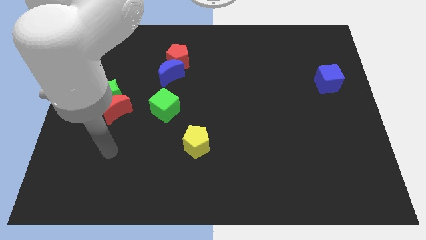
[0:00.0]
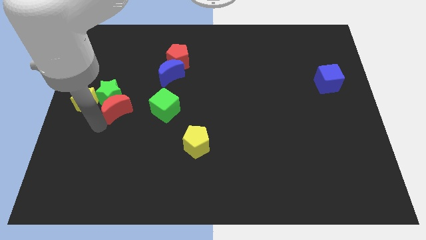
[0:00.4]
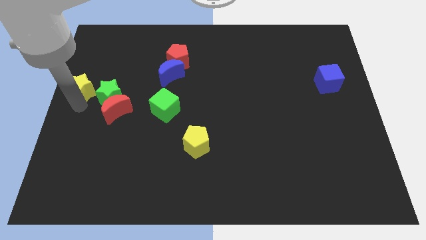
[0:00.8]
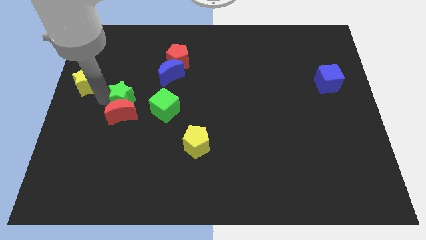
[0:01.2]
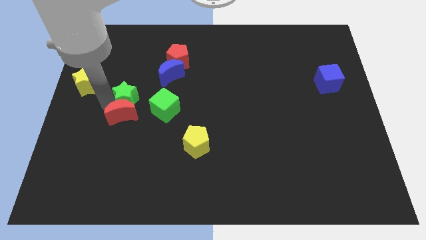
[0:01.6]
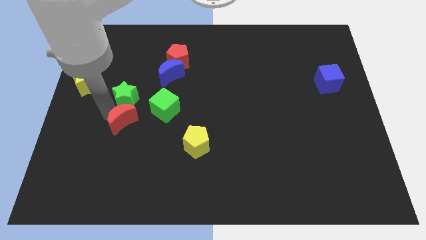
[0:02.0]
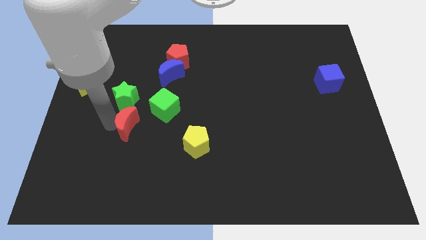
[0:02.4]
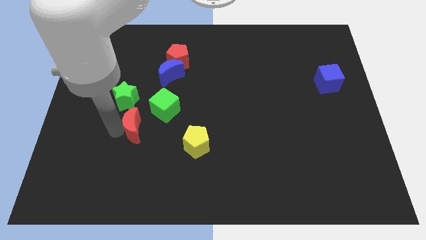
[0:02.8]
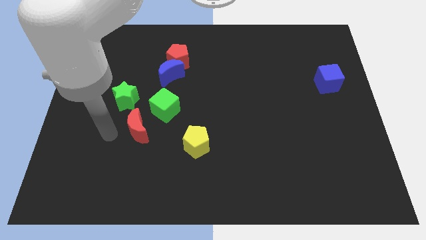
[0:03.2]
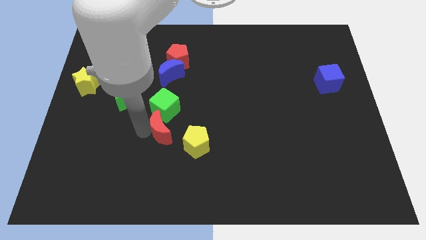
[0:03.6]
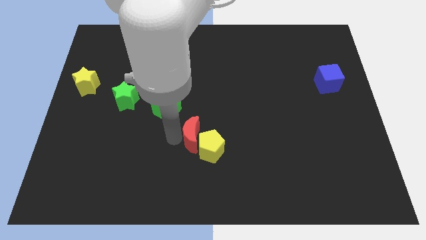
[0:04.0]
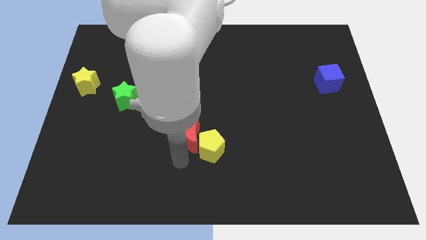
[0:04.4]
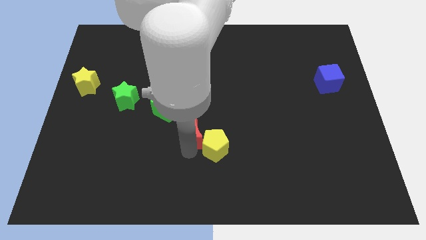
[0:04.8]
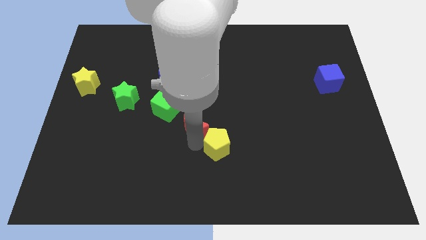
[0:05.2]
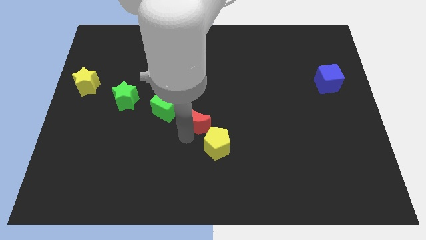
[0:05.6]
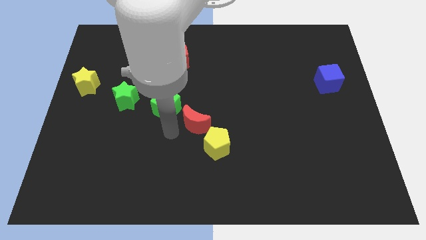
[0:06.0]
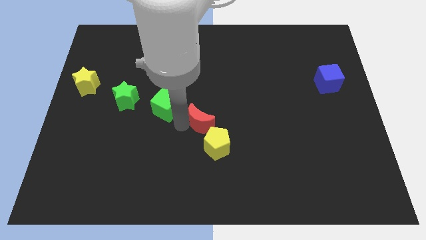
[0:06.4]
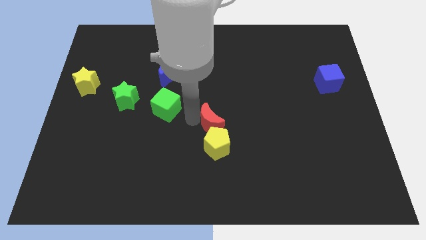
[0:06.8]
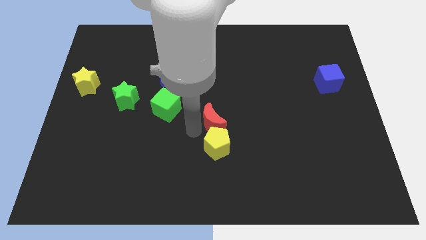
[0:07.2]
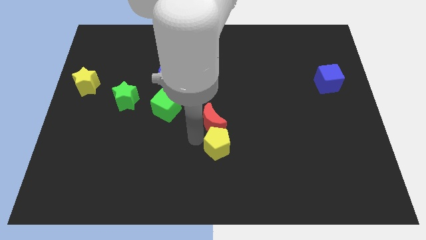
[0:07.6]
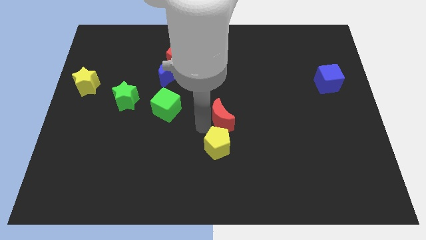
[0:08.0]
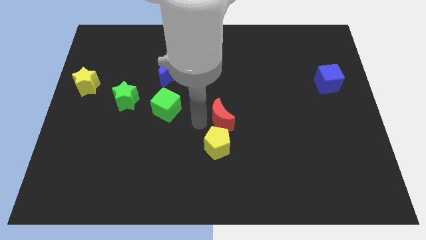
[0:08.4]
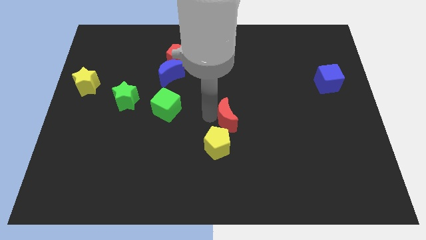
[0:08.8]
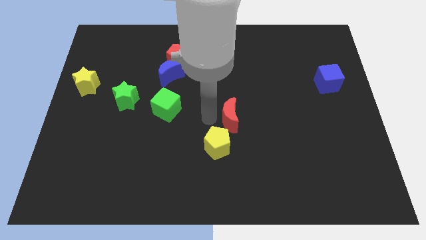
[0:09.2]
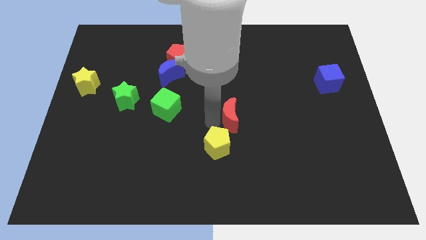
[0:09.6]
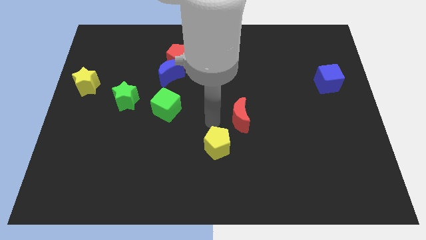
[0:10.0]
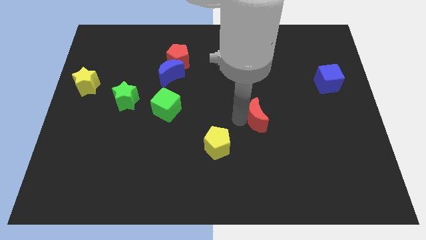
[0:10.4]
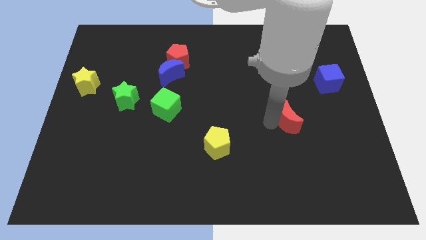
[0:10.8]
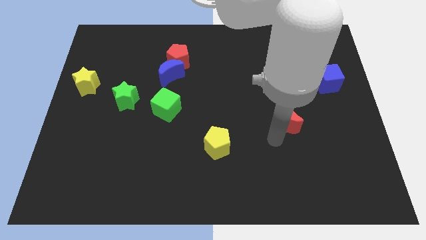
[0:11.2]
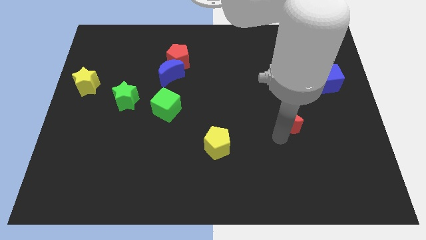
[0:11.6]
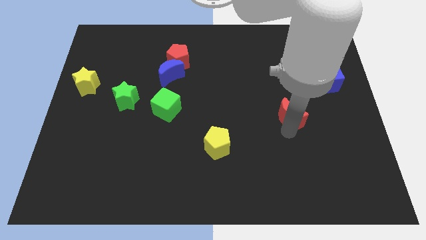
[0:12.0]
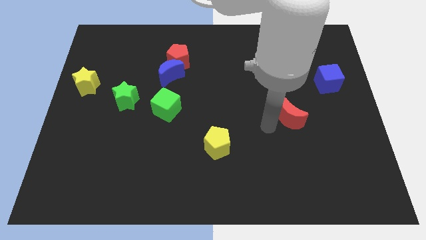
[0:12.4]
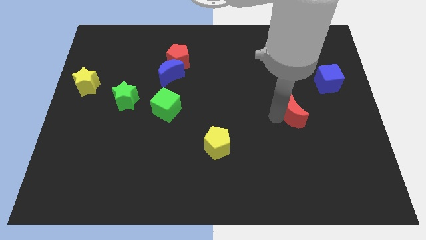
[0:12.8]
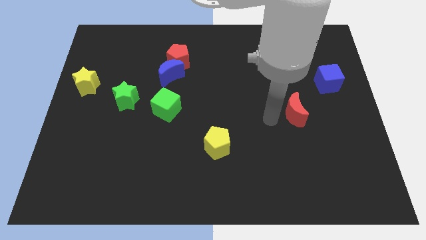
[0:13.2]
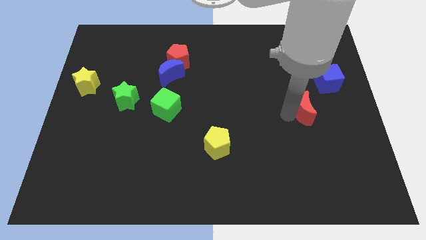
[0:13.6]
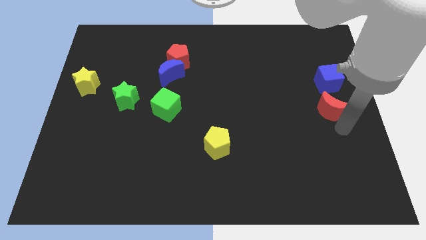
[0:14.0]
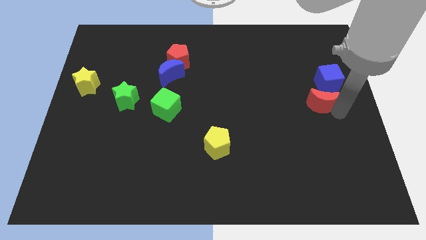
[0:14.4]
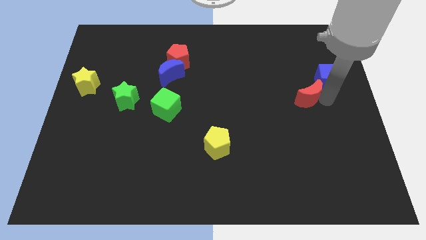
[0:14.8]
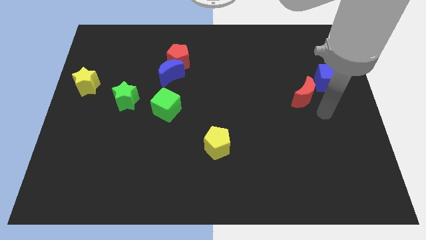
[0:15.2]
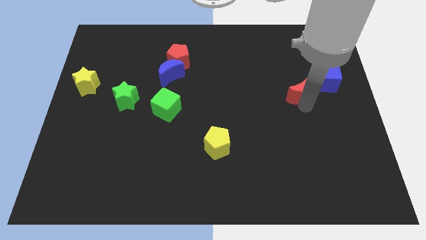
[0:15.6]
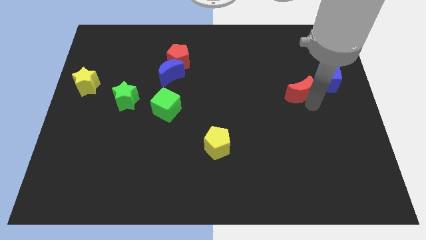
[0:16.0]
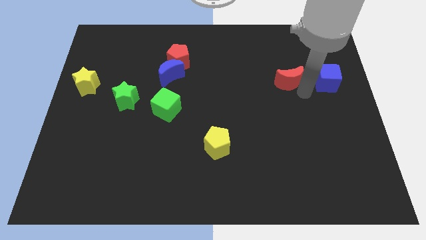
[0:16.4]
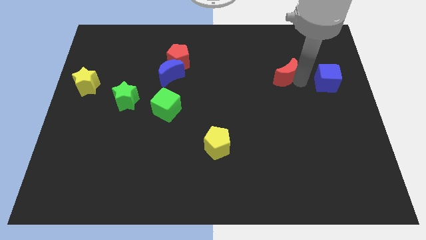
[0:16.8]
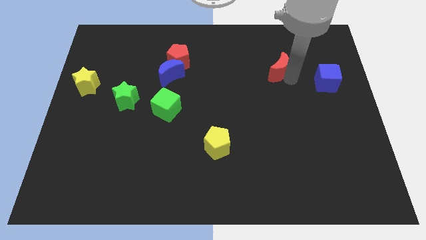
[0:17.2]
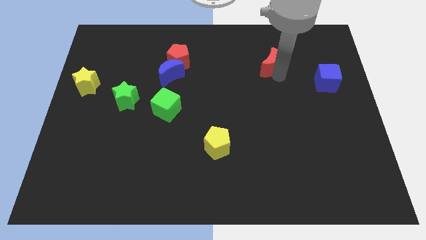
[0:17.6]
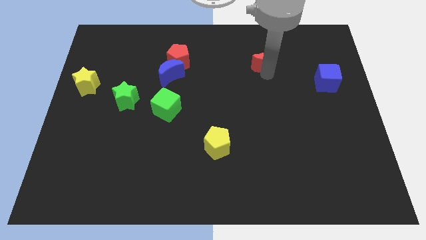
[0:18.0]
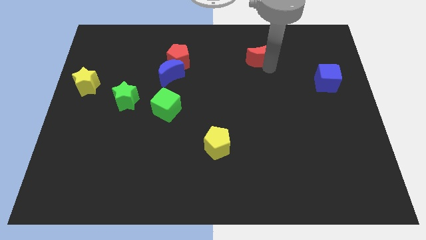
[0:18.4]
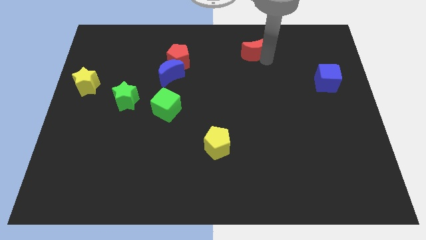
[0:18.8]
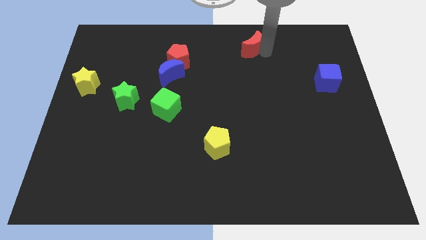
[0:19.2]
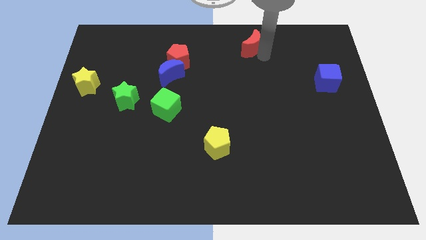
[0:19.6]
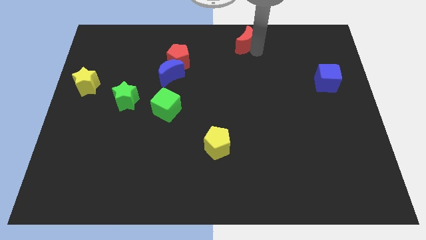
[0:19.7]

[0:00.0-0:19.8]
put the red moon to the top

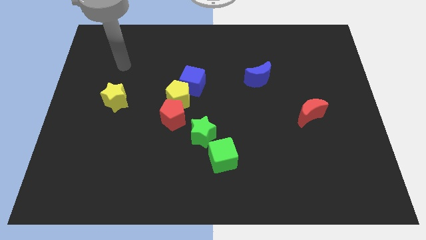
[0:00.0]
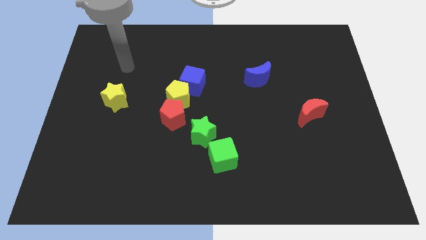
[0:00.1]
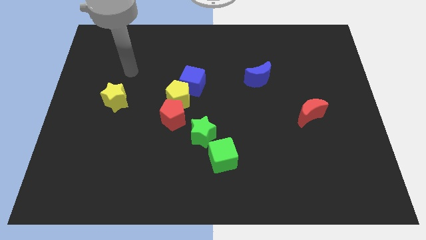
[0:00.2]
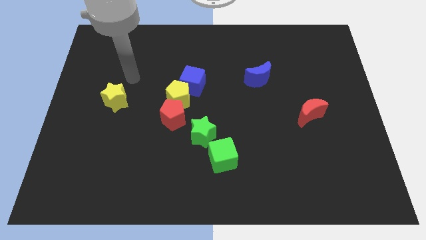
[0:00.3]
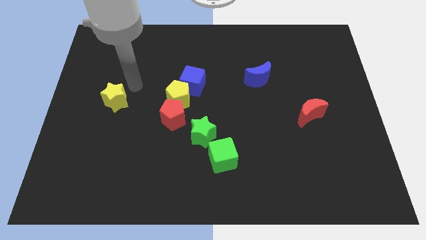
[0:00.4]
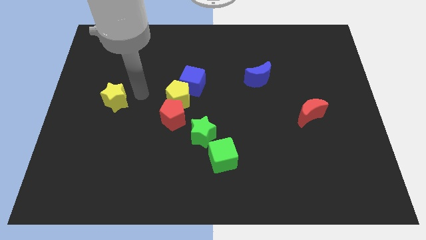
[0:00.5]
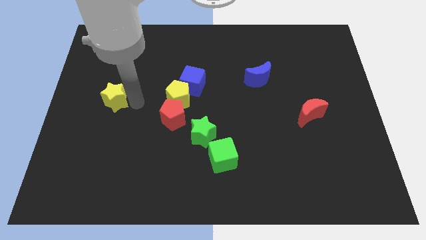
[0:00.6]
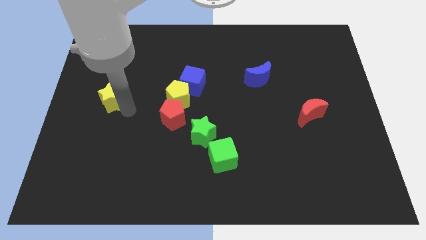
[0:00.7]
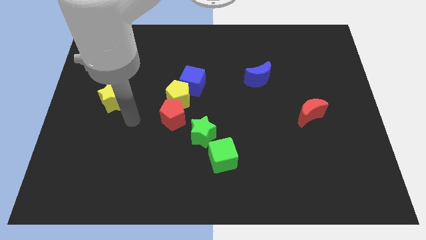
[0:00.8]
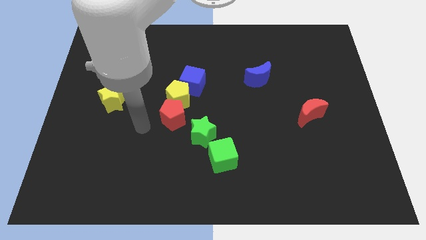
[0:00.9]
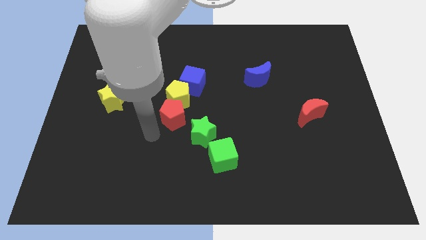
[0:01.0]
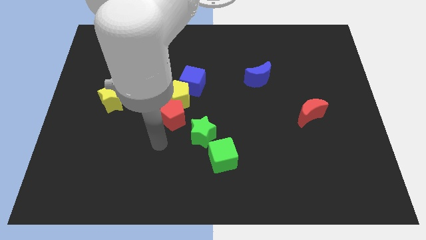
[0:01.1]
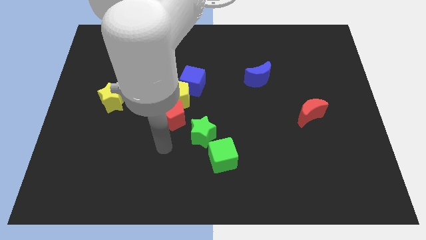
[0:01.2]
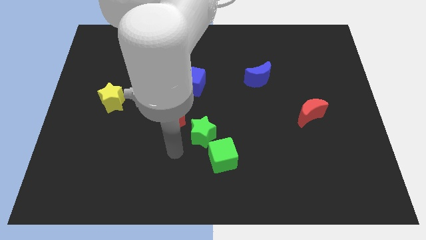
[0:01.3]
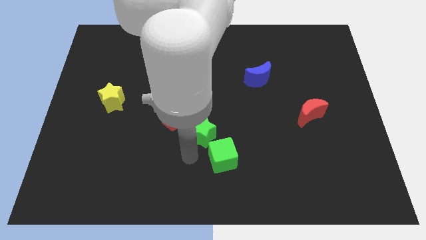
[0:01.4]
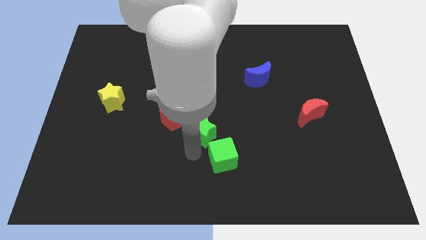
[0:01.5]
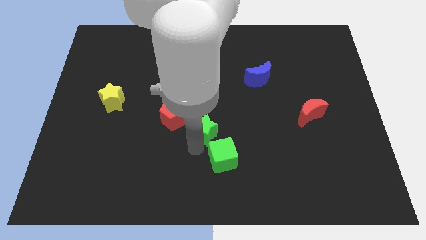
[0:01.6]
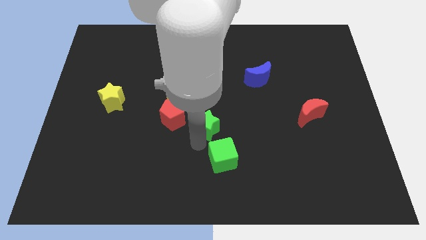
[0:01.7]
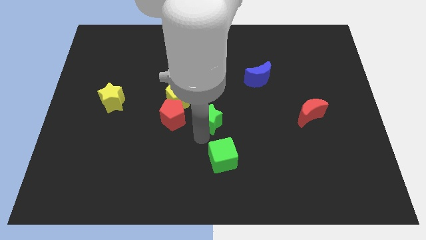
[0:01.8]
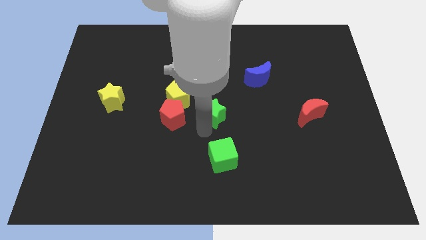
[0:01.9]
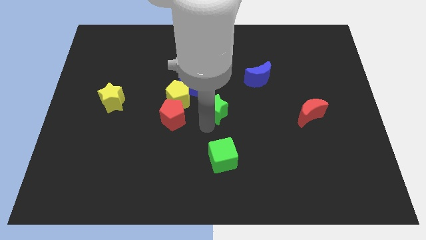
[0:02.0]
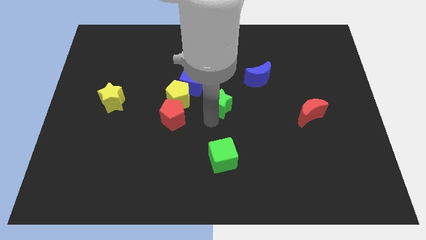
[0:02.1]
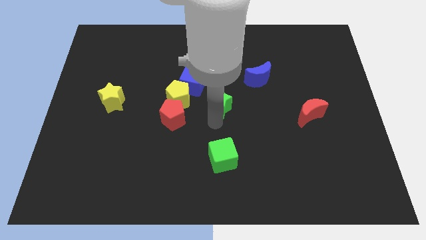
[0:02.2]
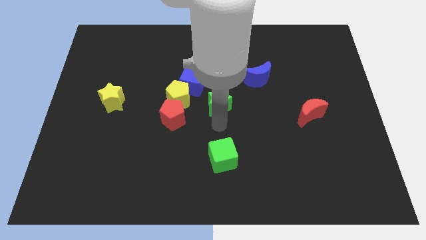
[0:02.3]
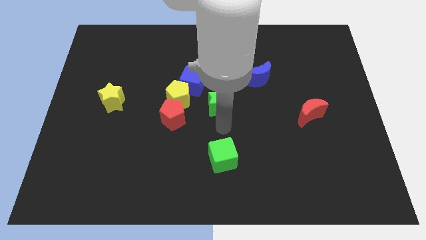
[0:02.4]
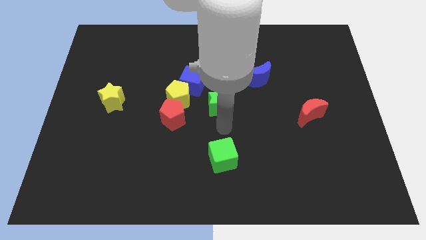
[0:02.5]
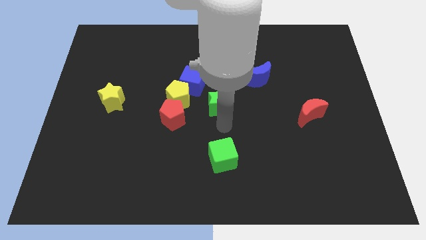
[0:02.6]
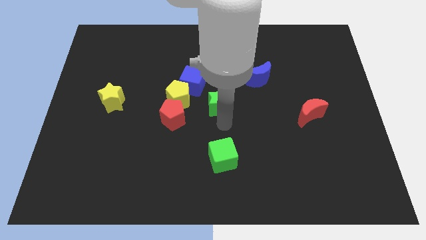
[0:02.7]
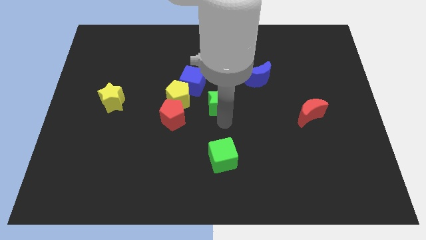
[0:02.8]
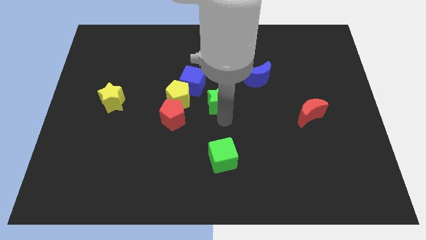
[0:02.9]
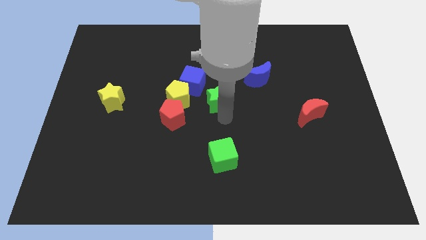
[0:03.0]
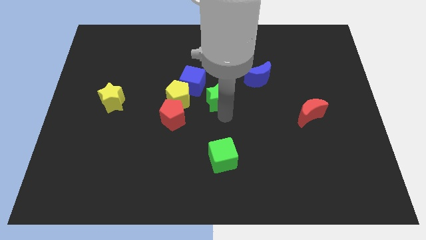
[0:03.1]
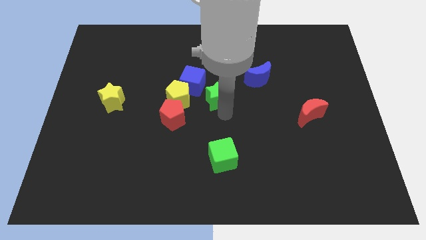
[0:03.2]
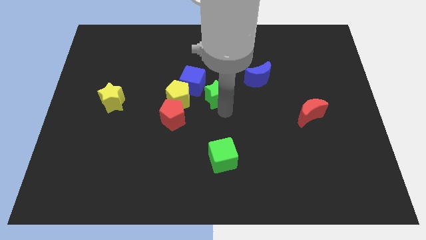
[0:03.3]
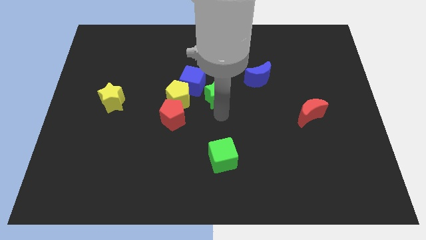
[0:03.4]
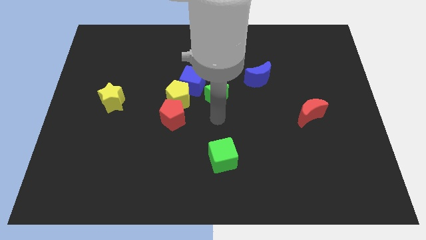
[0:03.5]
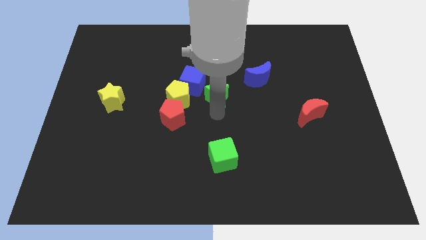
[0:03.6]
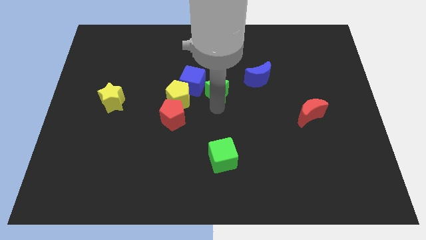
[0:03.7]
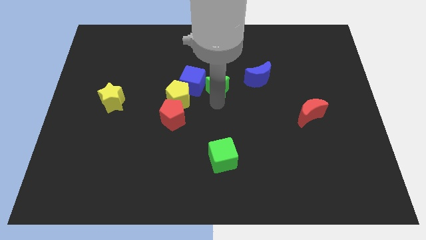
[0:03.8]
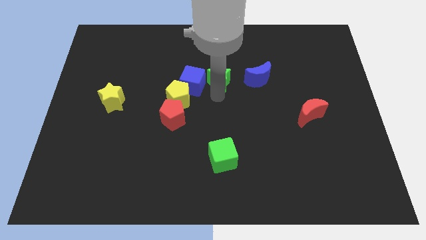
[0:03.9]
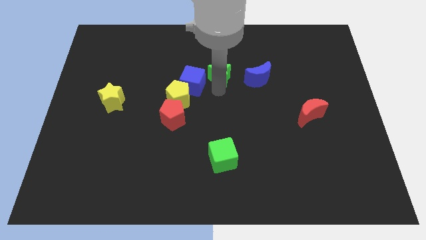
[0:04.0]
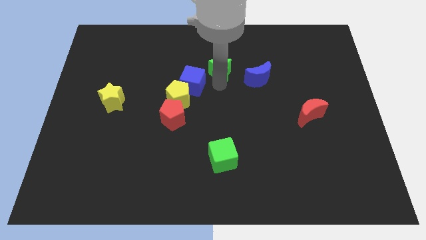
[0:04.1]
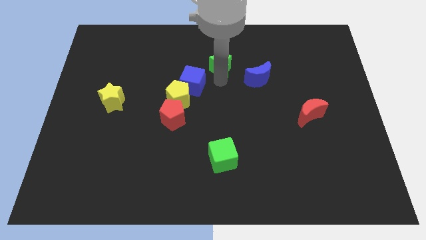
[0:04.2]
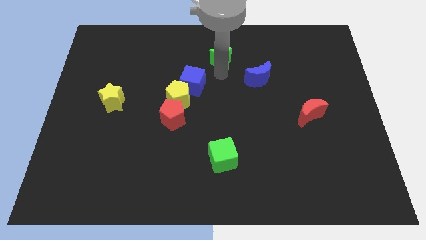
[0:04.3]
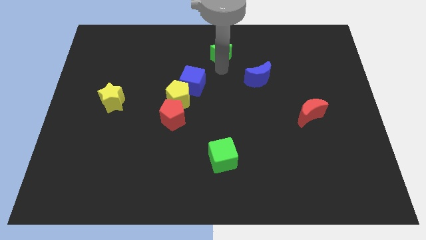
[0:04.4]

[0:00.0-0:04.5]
move the green star to the top side
